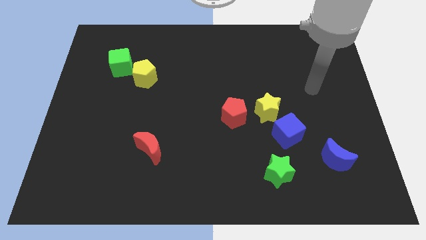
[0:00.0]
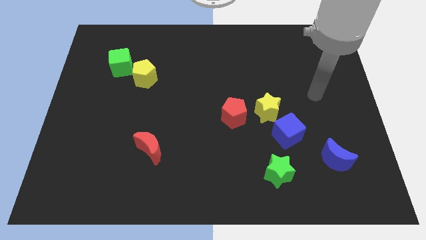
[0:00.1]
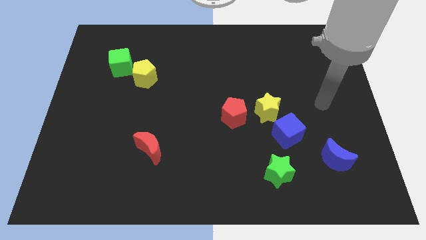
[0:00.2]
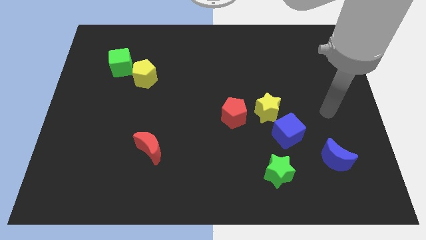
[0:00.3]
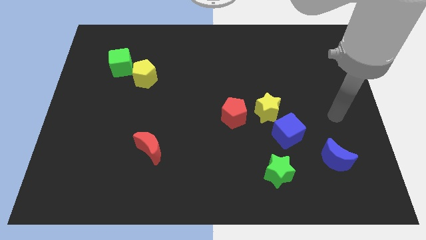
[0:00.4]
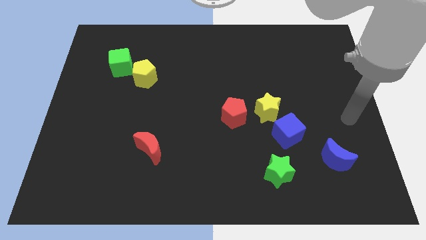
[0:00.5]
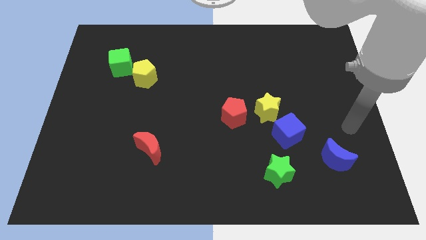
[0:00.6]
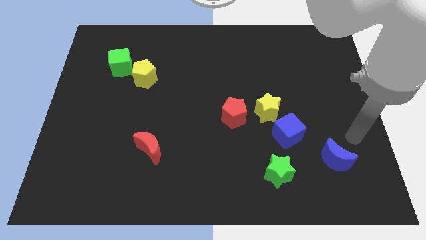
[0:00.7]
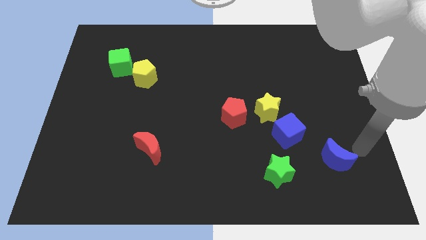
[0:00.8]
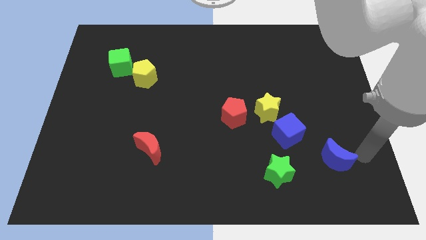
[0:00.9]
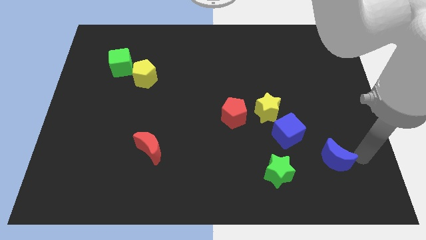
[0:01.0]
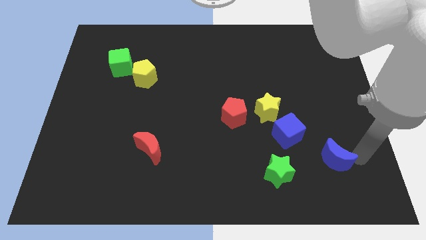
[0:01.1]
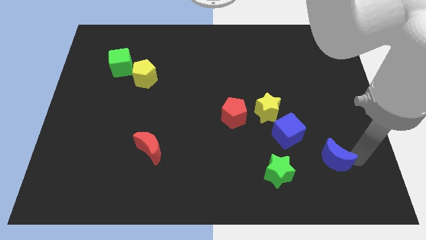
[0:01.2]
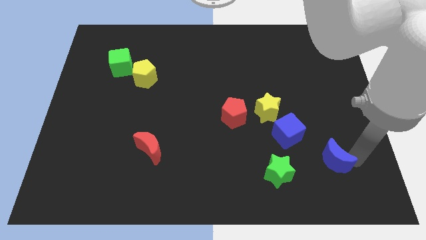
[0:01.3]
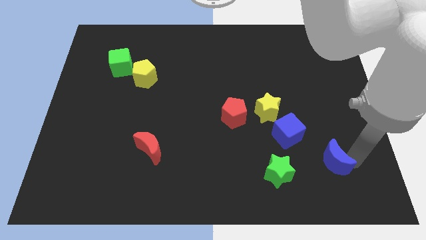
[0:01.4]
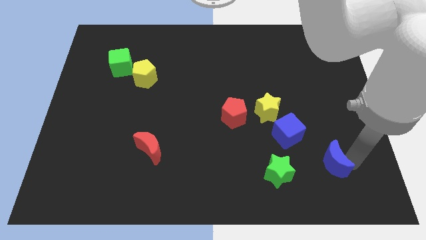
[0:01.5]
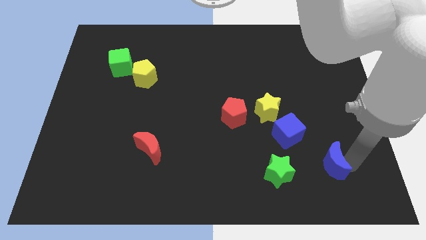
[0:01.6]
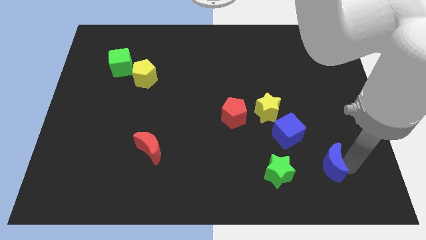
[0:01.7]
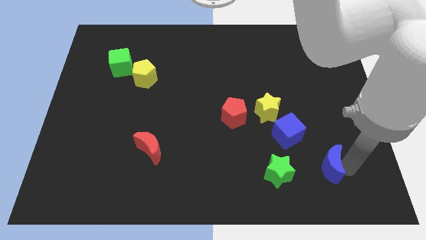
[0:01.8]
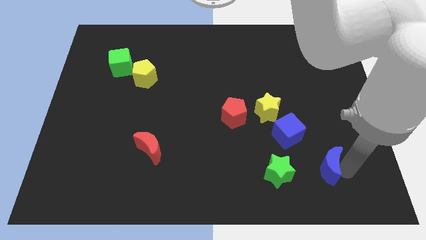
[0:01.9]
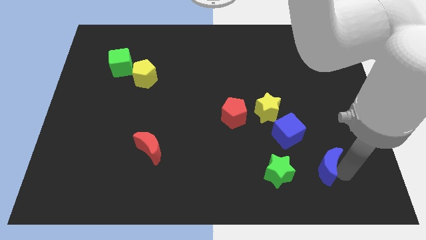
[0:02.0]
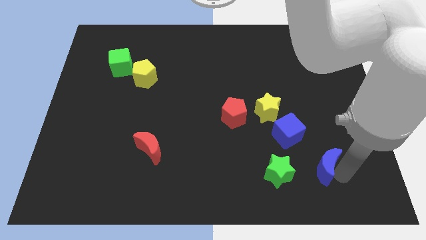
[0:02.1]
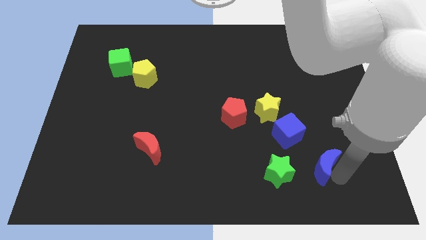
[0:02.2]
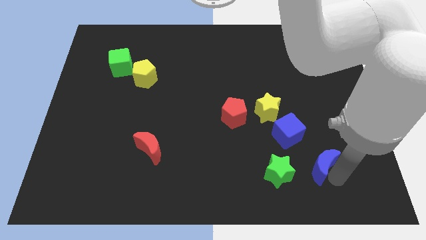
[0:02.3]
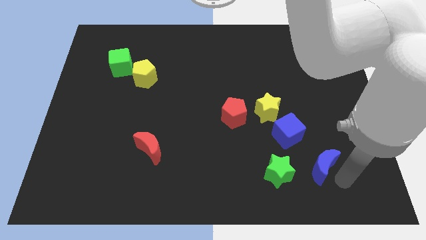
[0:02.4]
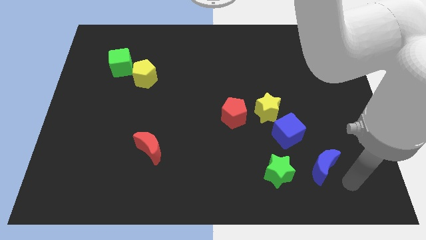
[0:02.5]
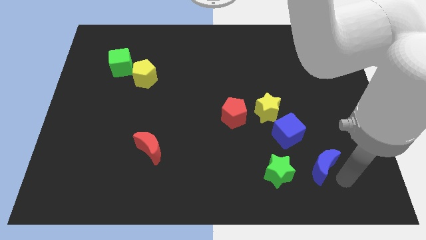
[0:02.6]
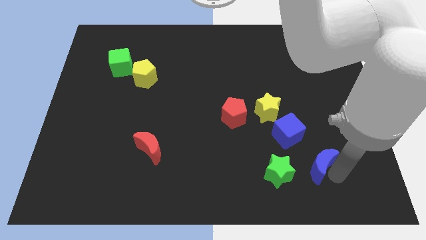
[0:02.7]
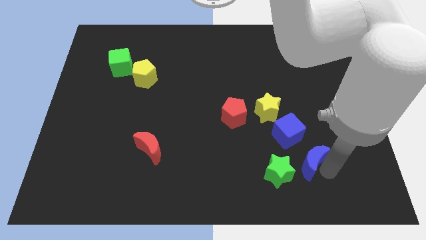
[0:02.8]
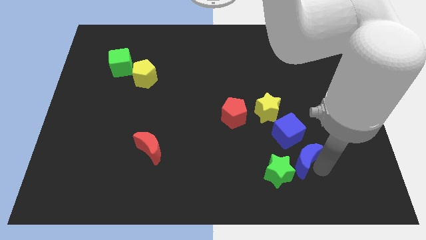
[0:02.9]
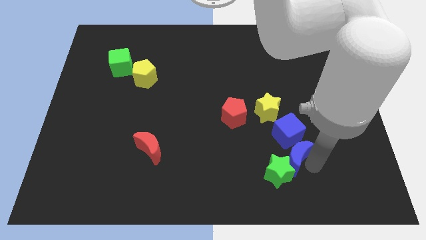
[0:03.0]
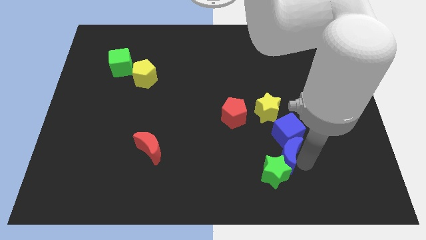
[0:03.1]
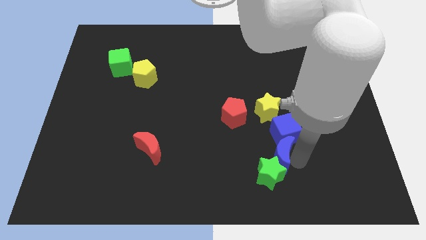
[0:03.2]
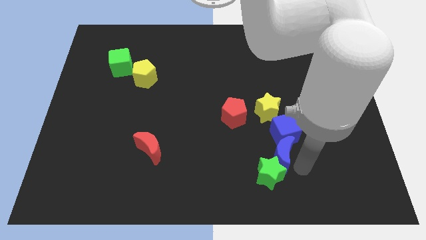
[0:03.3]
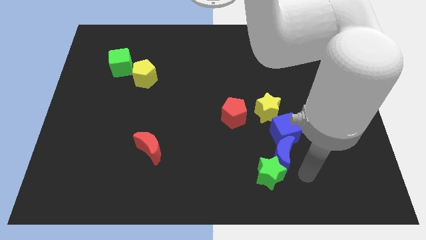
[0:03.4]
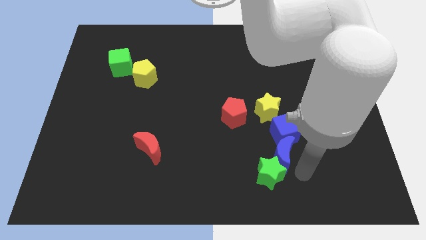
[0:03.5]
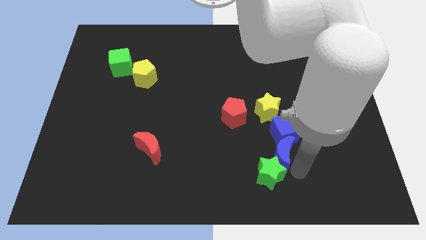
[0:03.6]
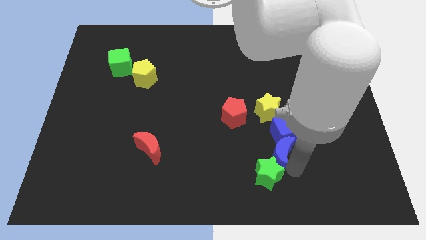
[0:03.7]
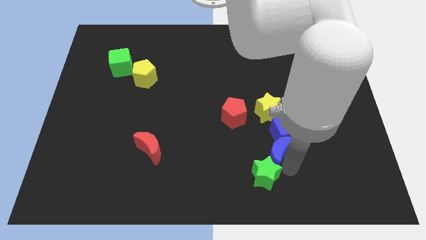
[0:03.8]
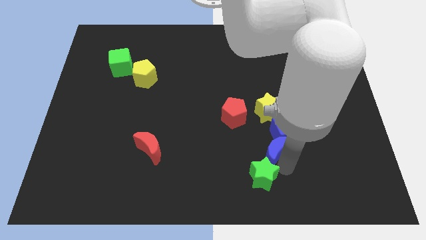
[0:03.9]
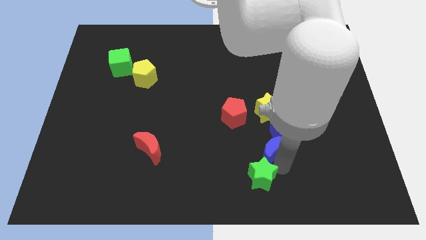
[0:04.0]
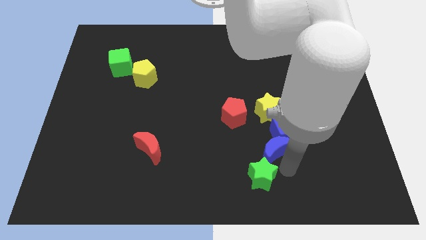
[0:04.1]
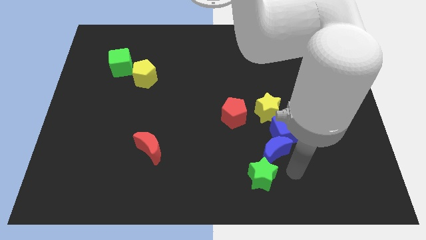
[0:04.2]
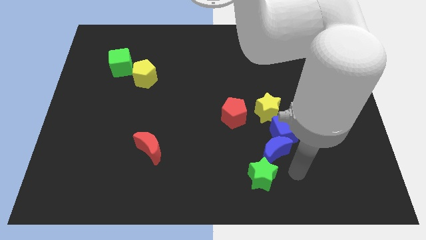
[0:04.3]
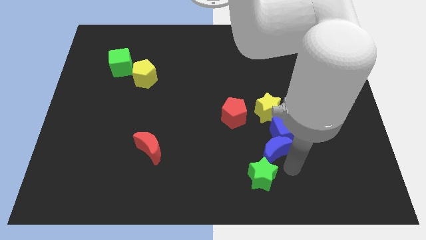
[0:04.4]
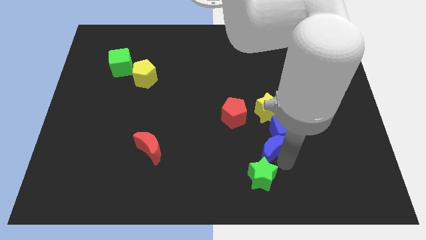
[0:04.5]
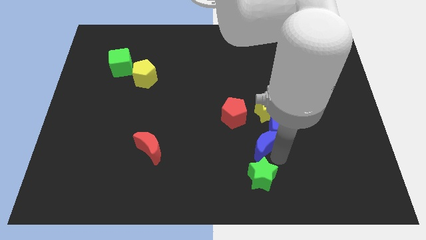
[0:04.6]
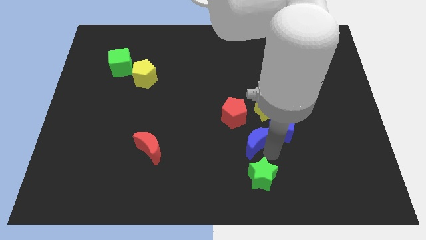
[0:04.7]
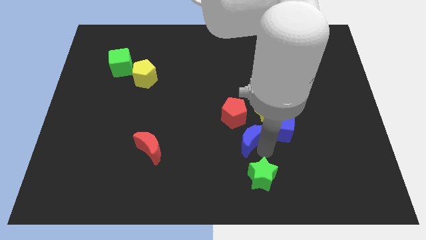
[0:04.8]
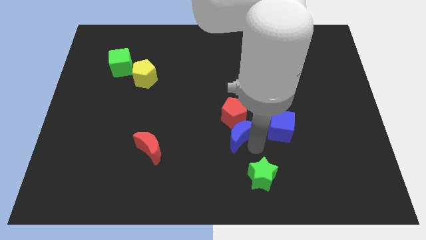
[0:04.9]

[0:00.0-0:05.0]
move the blue moon towards the red pentagon
